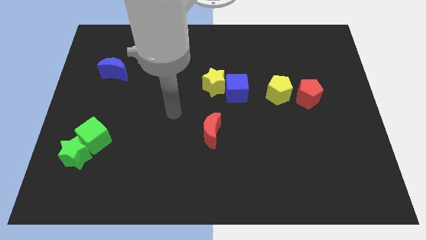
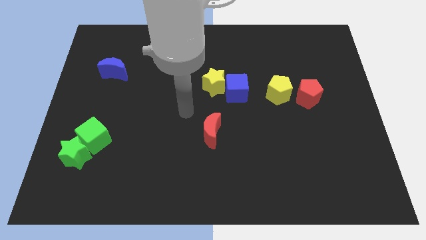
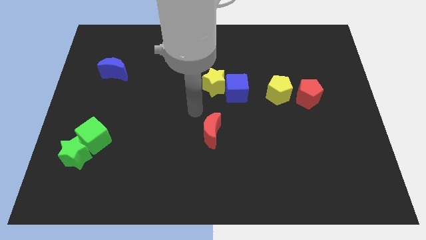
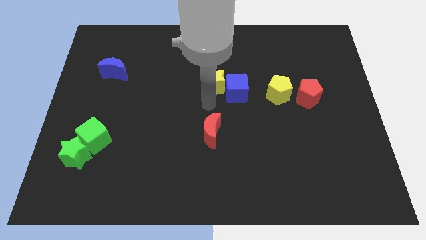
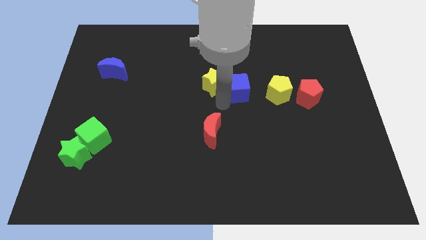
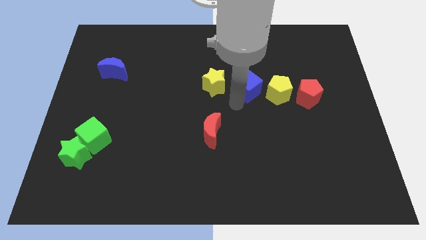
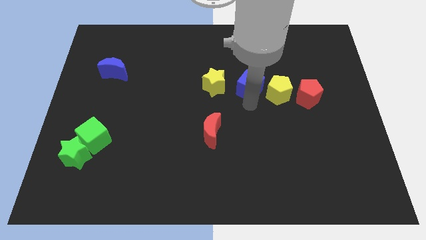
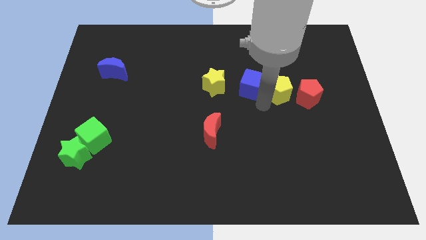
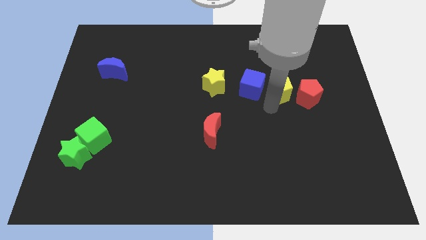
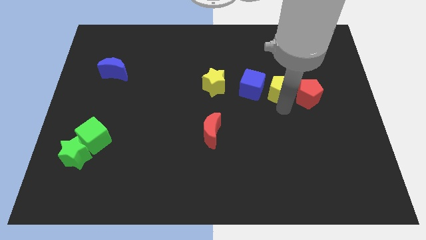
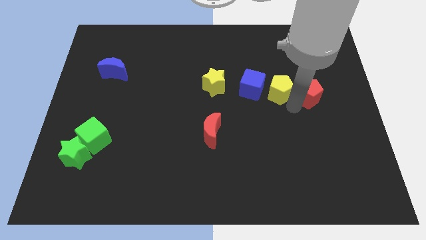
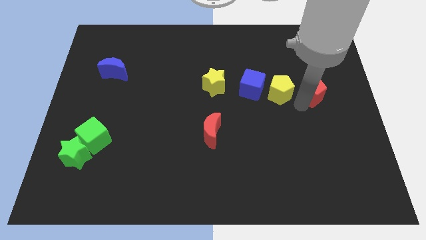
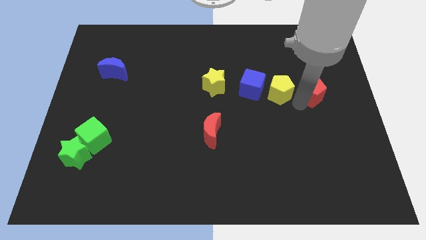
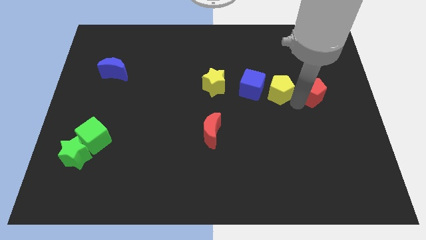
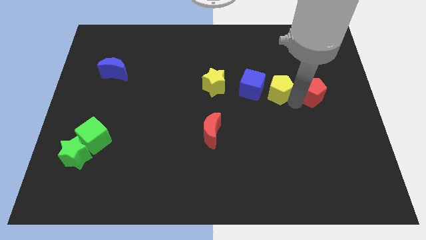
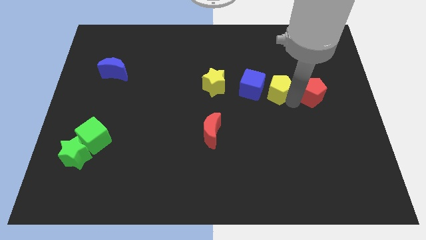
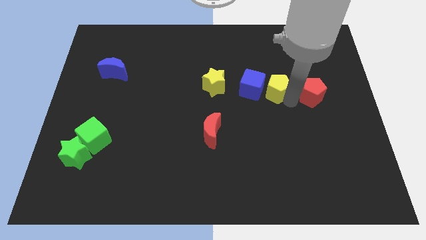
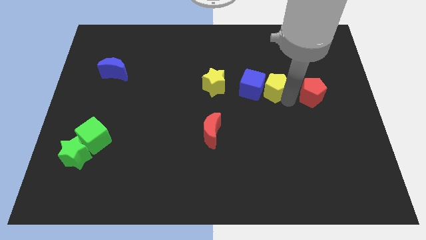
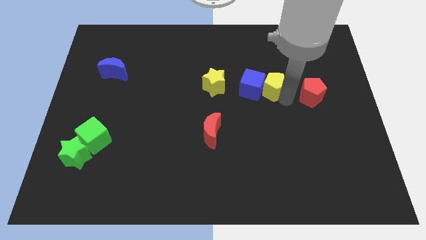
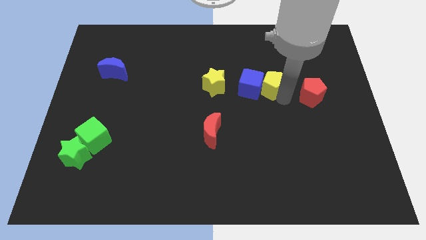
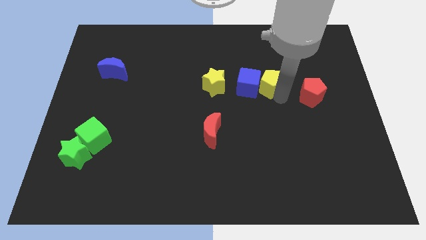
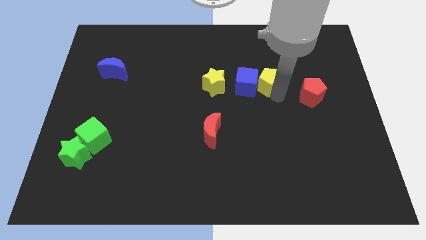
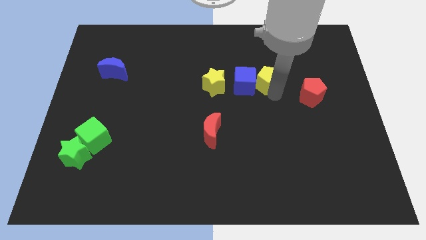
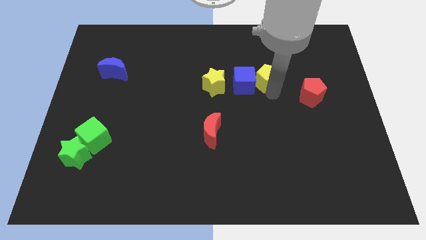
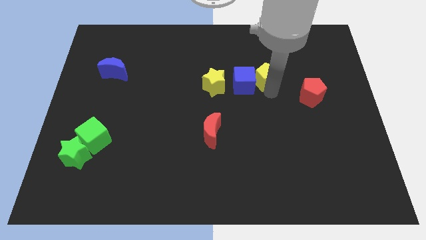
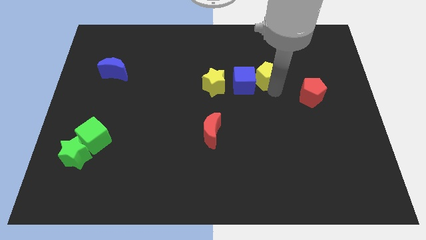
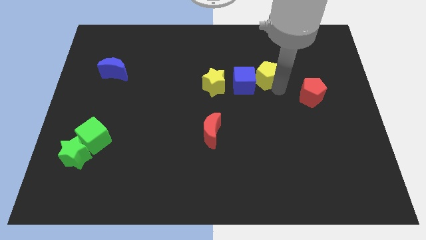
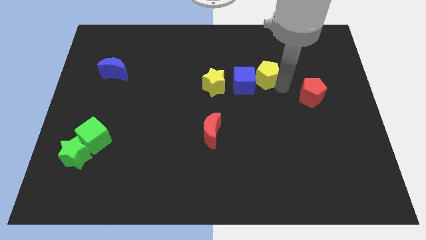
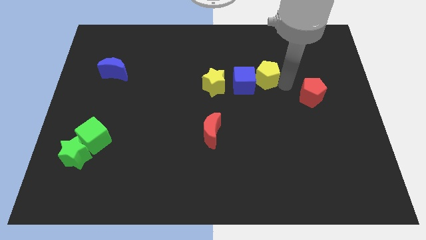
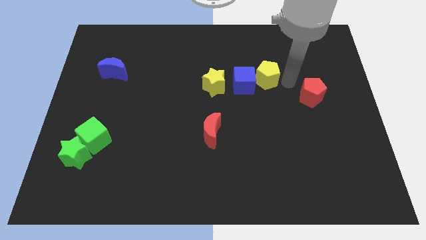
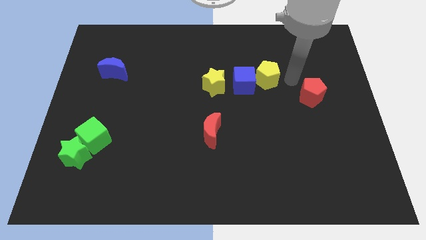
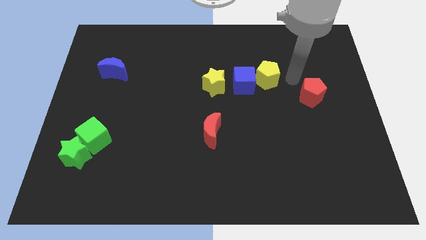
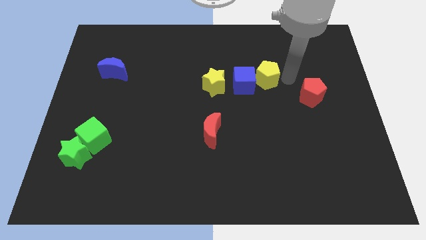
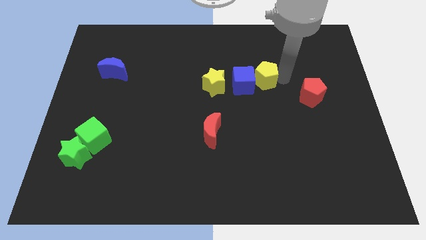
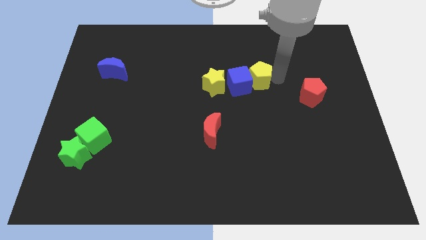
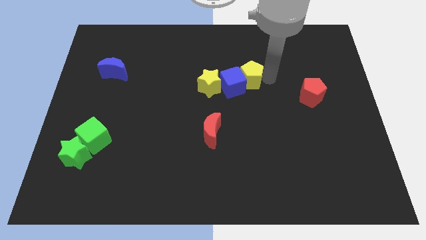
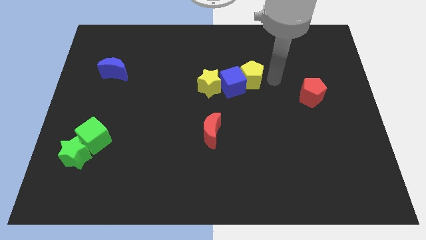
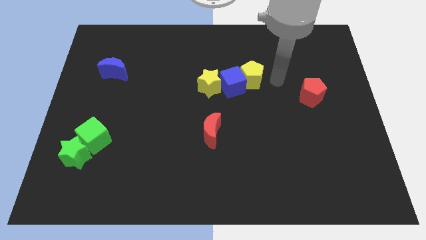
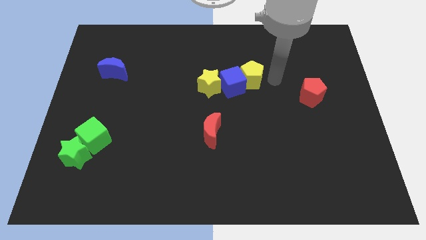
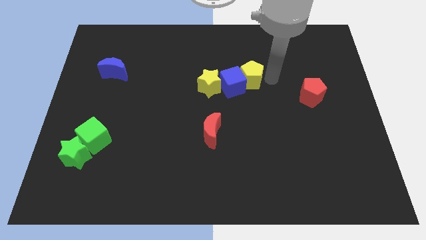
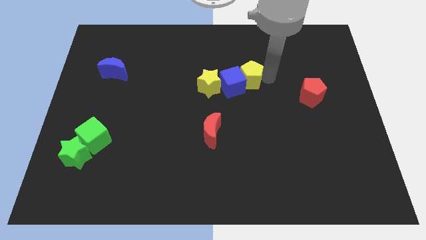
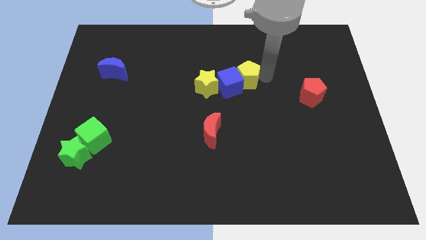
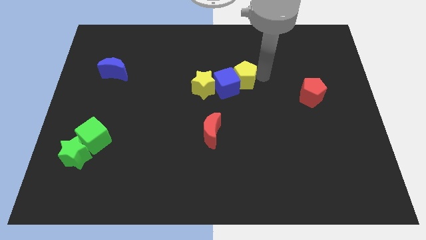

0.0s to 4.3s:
slightly move the yellow pentagon left

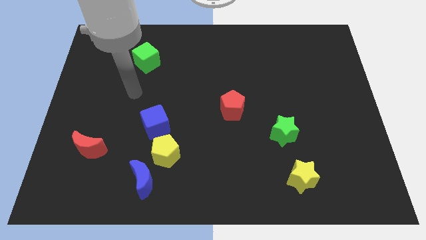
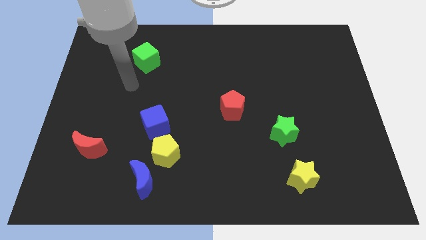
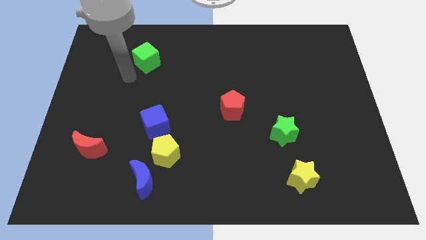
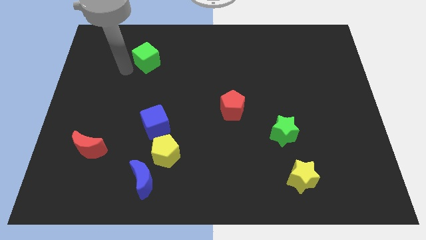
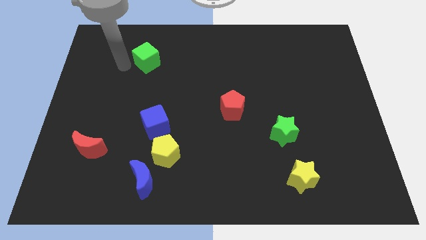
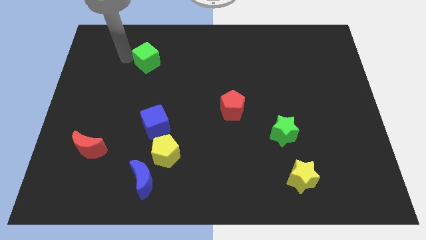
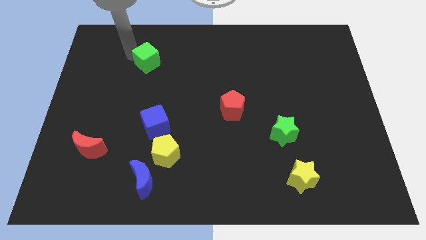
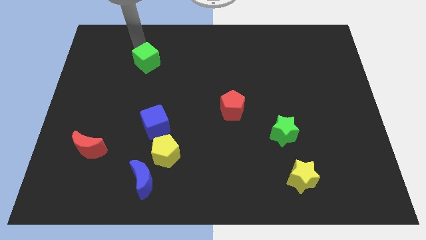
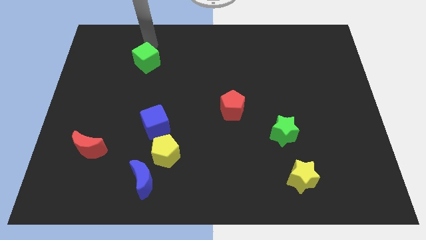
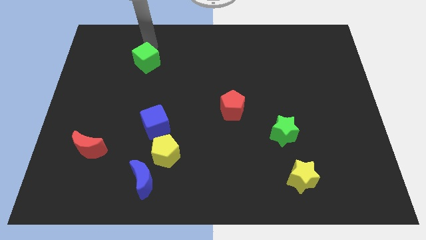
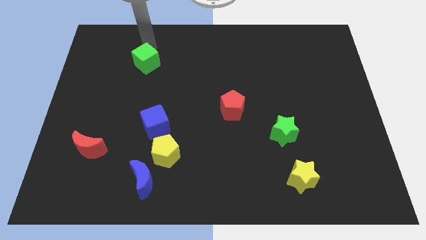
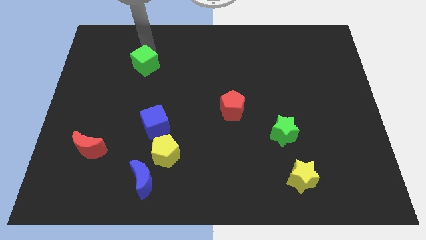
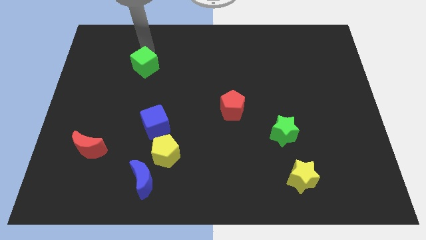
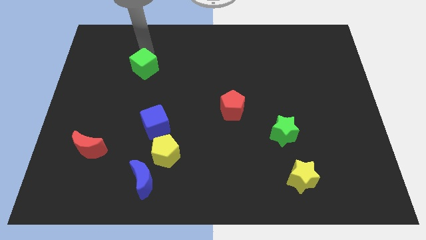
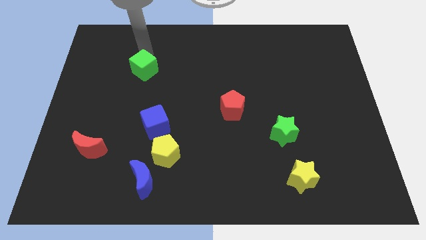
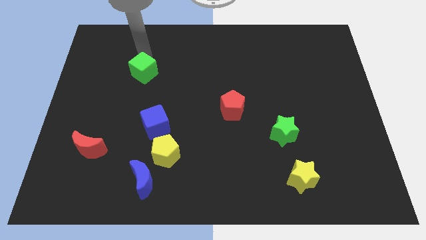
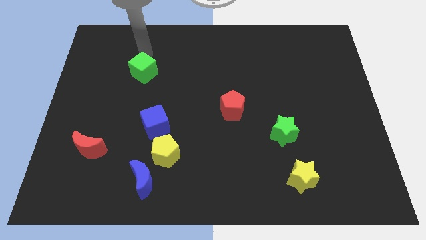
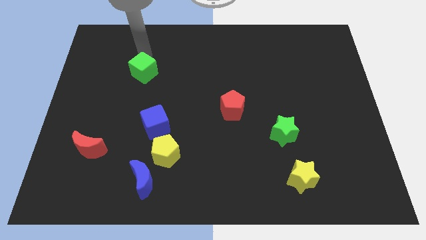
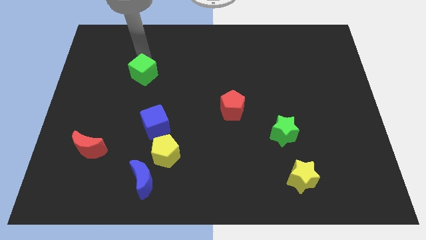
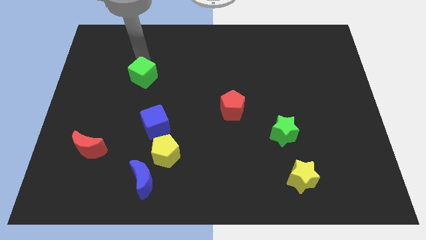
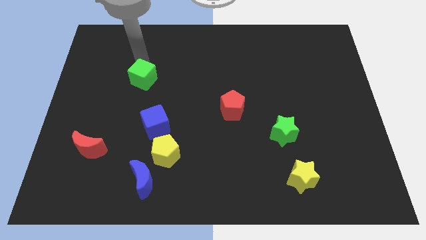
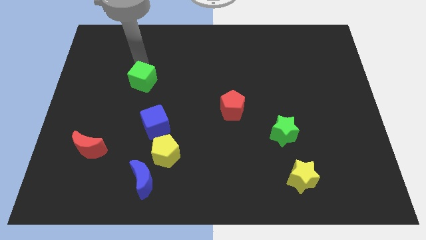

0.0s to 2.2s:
push the green cube a little downwards

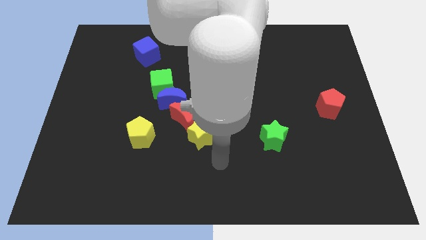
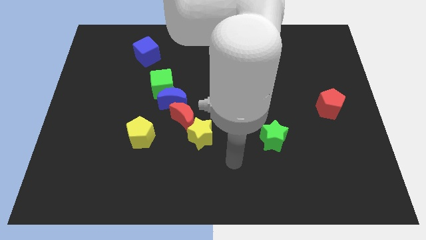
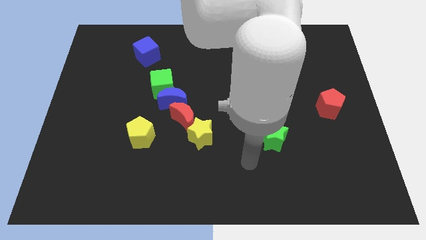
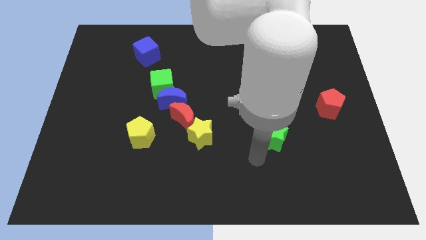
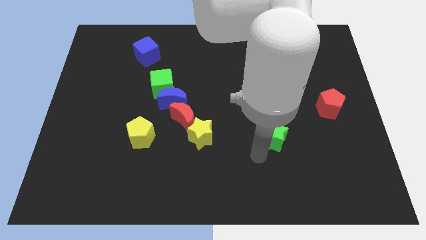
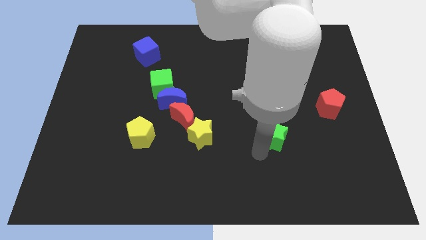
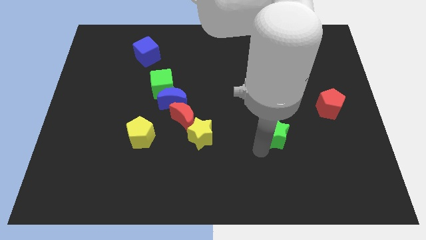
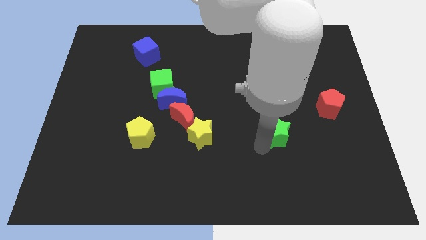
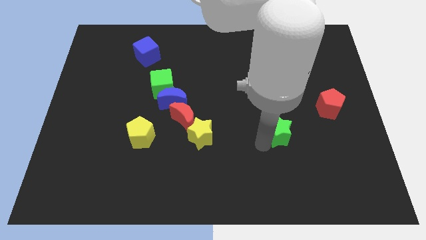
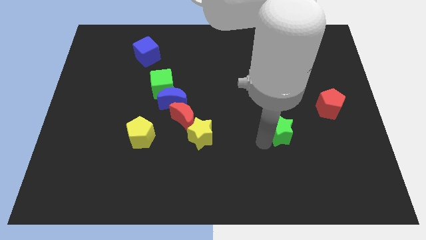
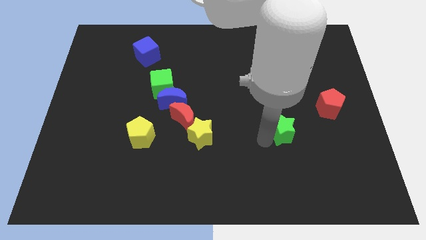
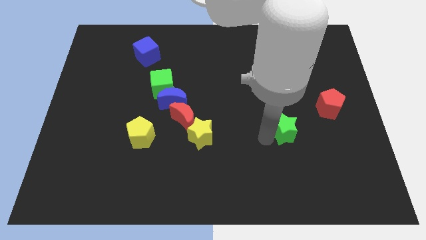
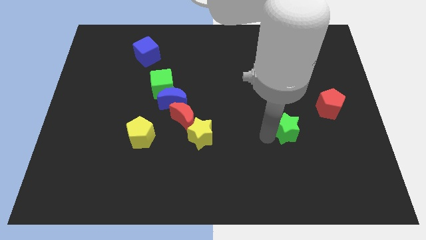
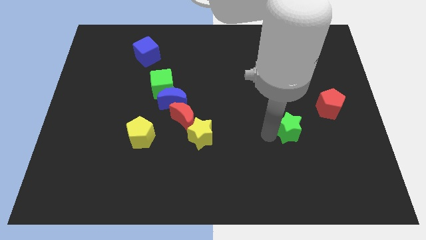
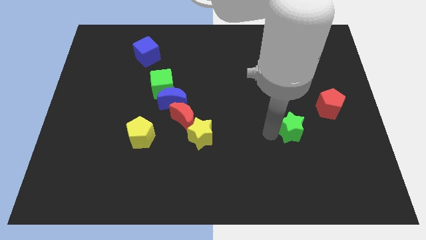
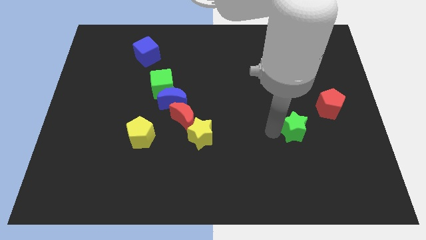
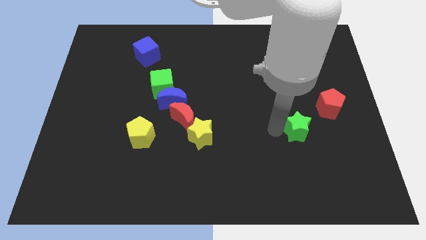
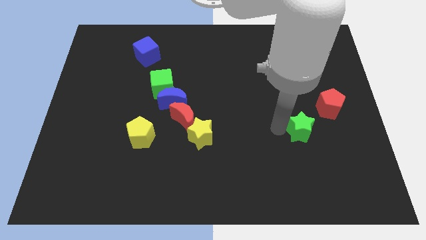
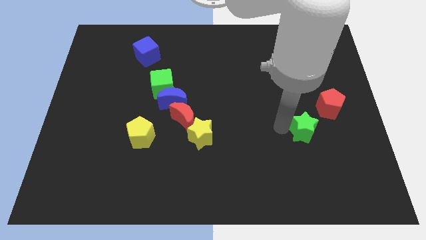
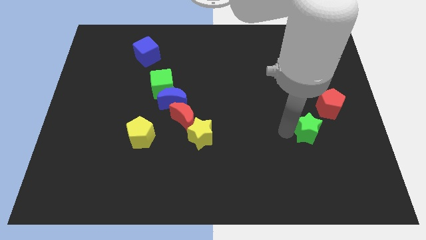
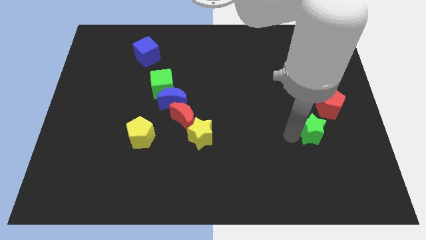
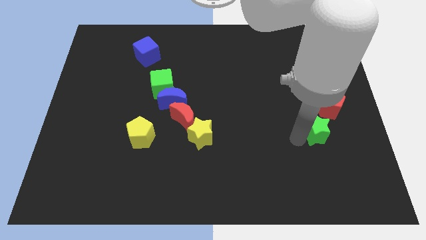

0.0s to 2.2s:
slide the green star up and to the right a little bit
